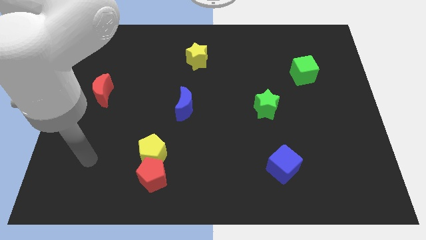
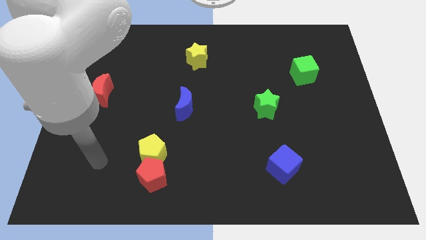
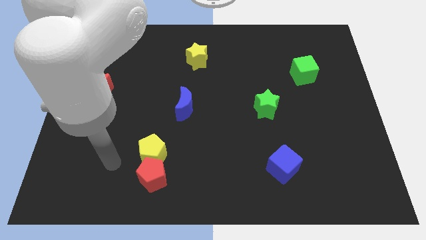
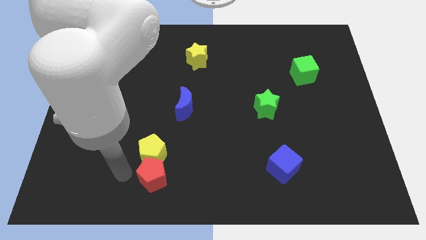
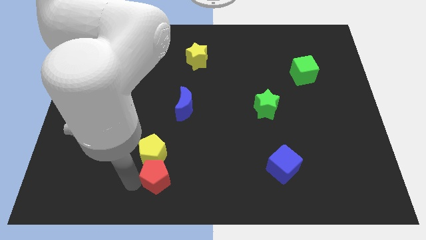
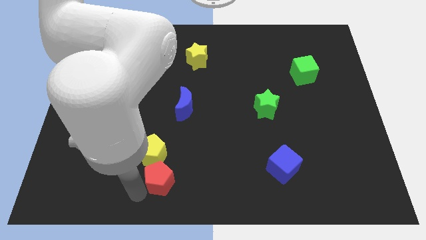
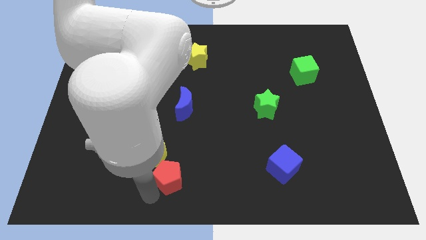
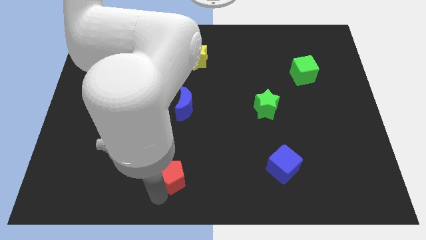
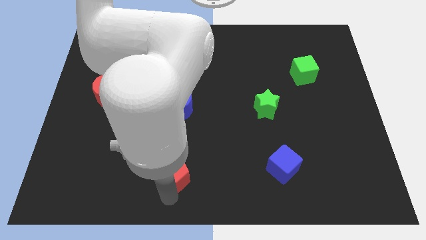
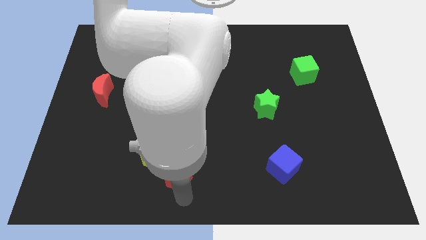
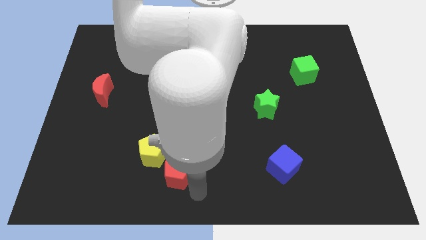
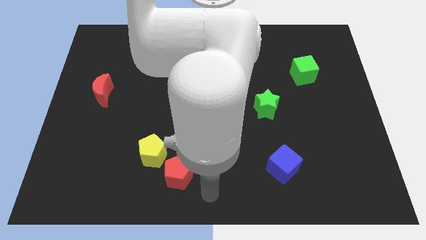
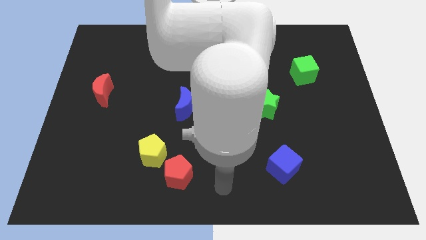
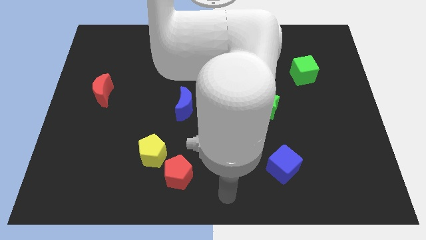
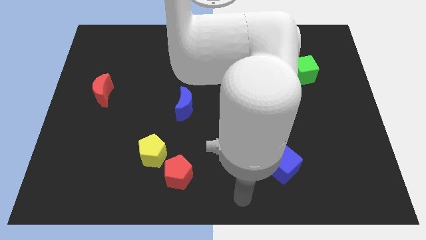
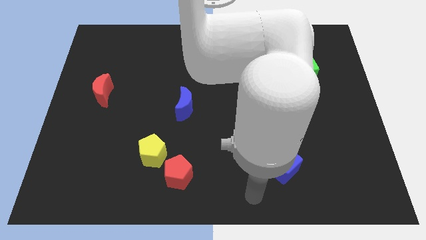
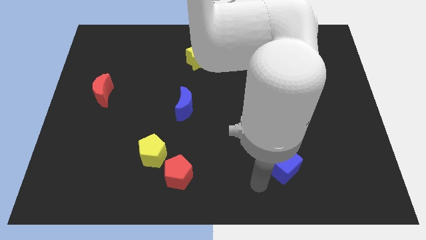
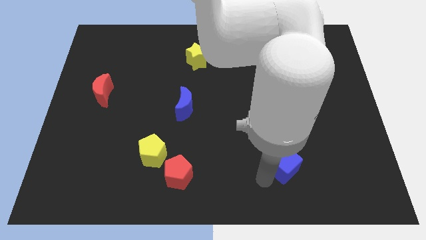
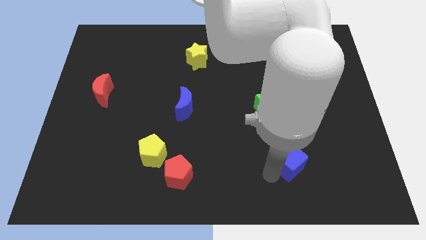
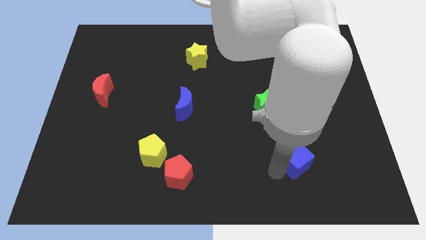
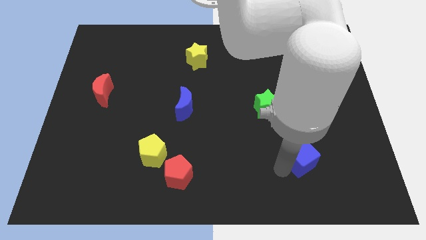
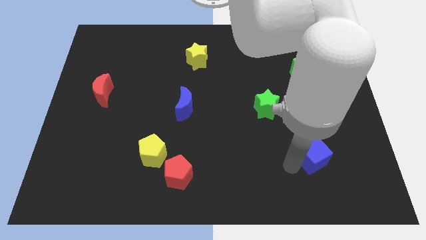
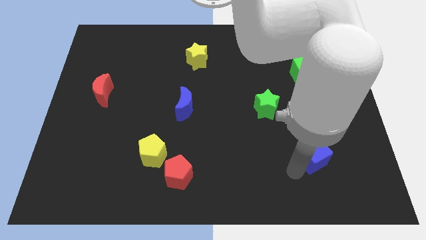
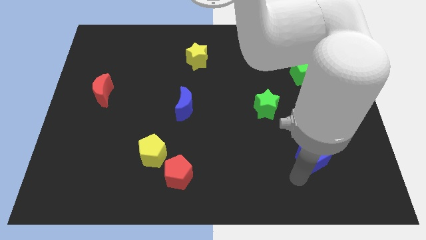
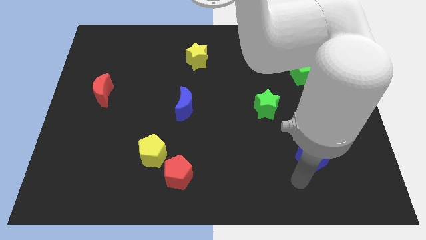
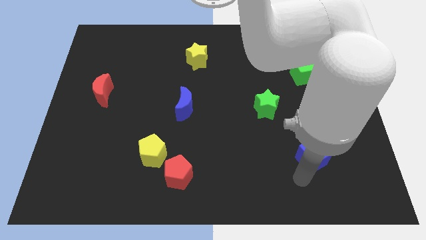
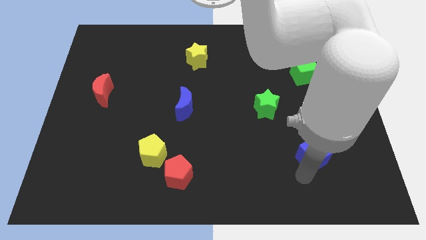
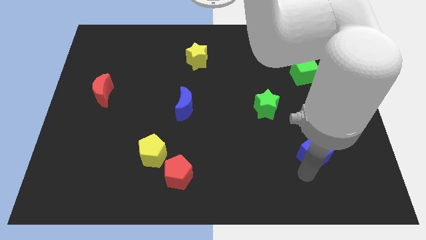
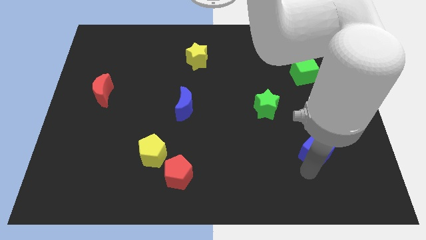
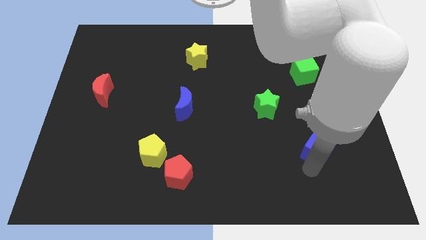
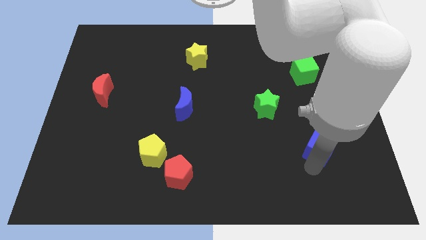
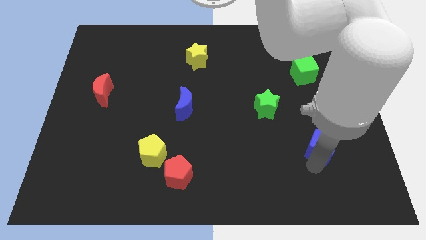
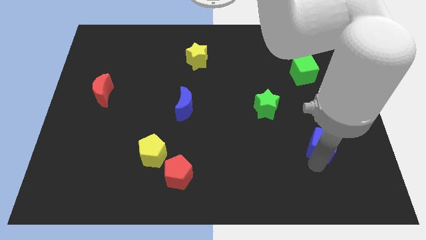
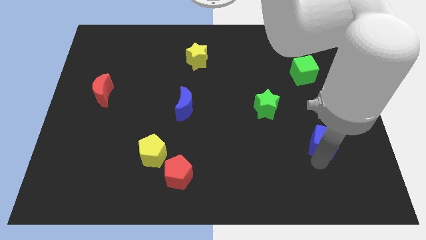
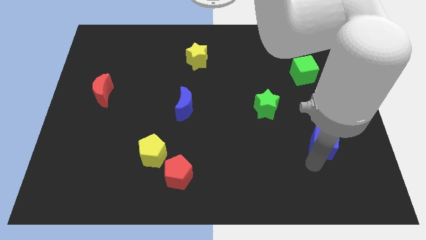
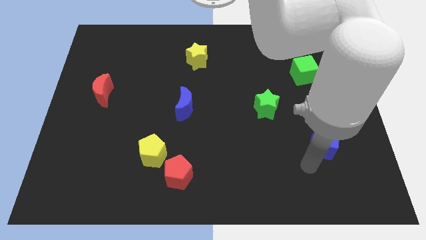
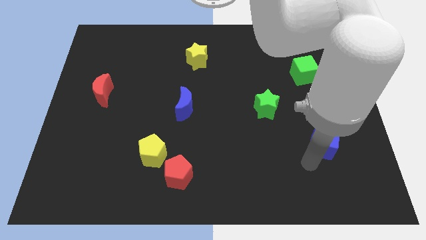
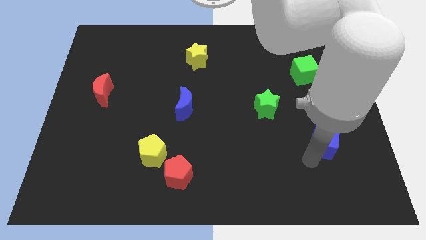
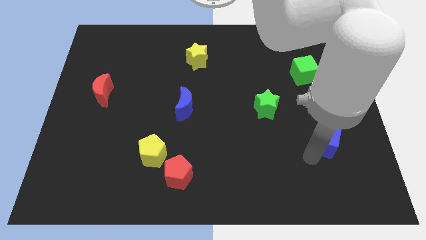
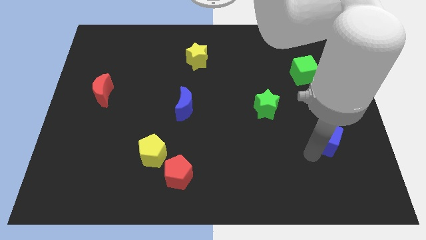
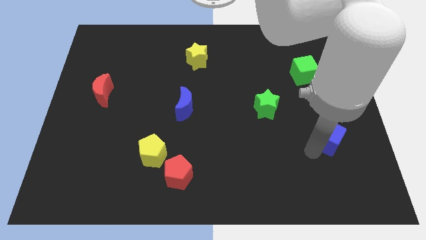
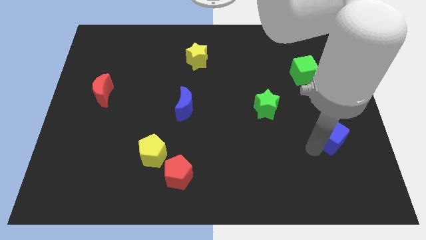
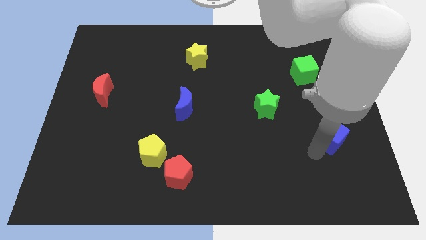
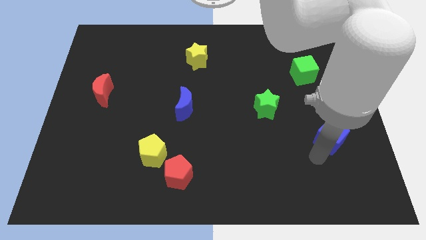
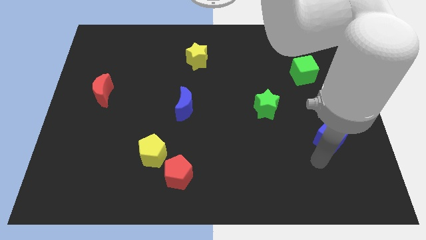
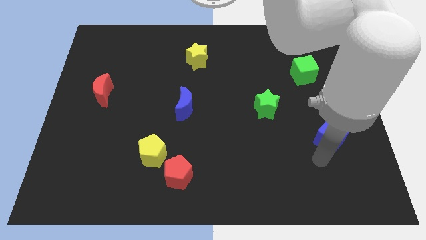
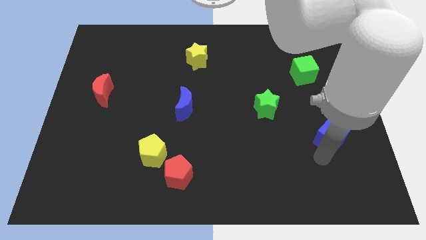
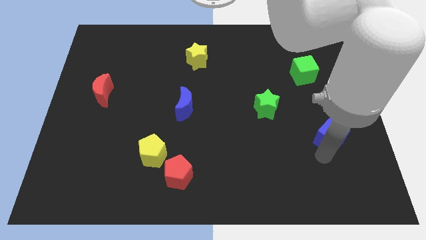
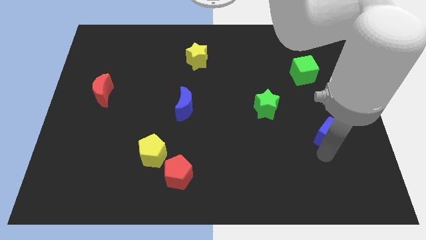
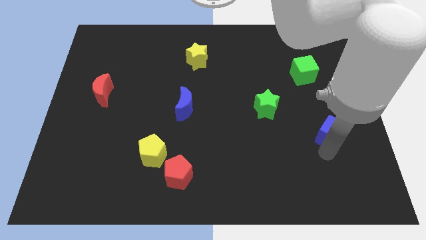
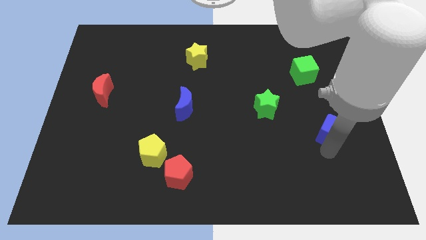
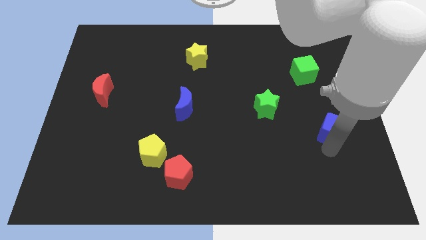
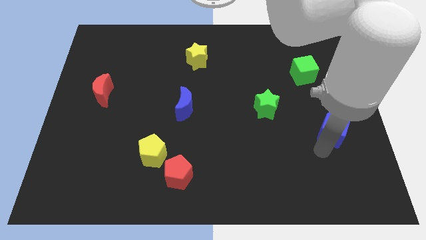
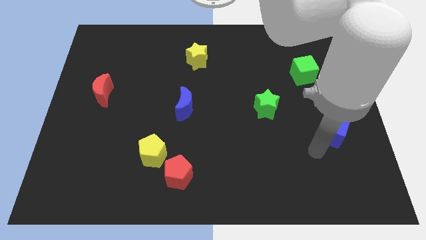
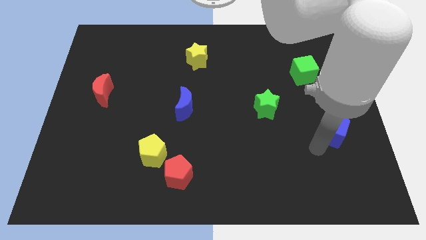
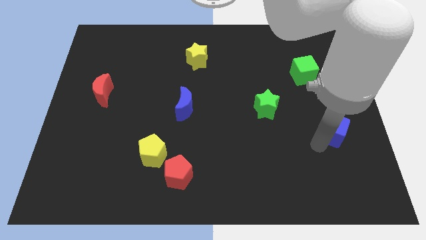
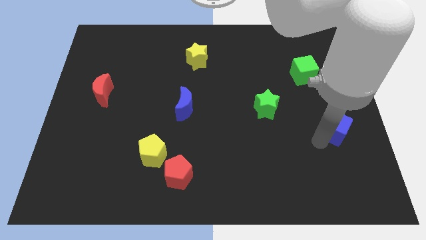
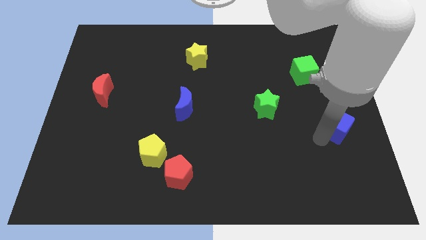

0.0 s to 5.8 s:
put the blue cube to the right side
